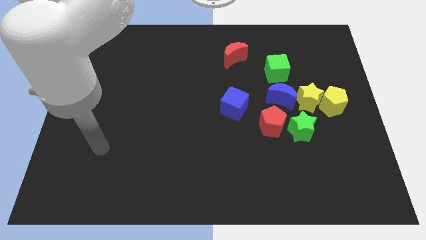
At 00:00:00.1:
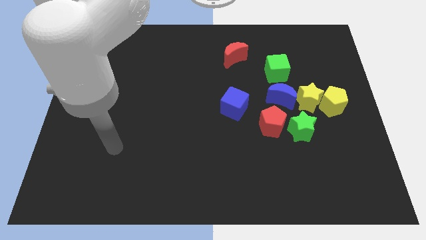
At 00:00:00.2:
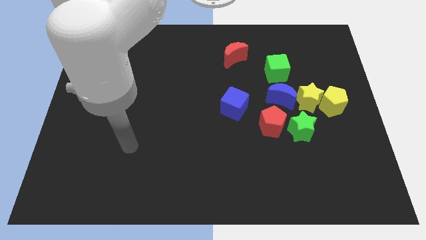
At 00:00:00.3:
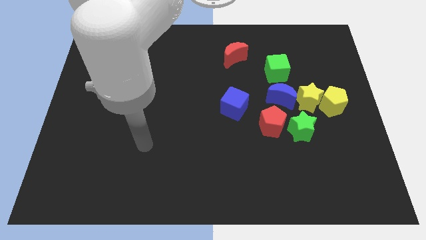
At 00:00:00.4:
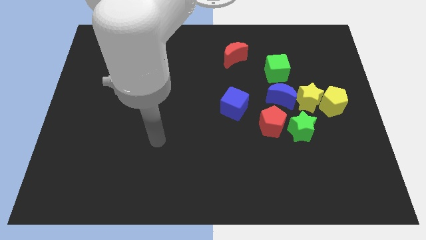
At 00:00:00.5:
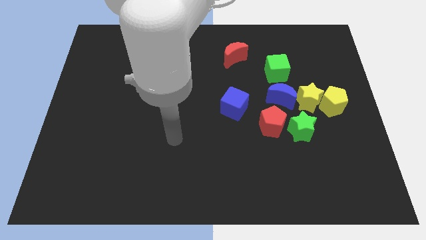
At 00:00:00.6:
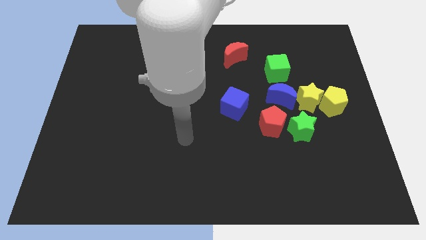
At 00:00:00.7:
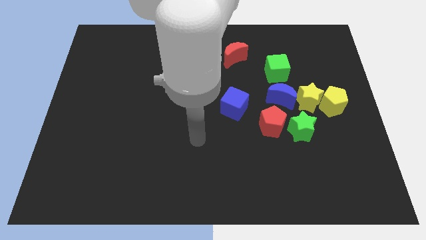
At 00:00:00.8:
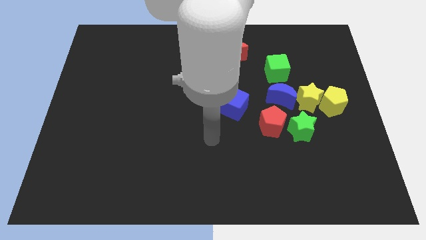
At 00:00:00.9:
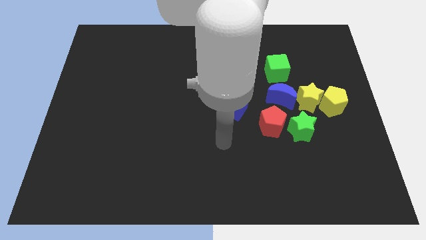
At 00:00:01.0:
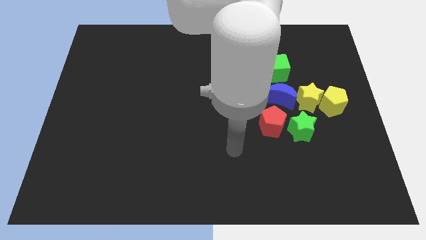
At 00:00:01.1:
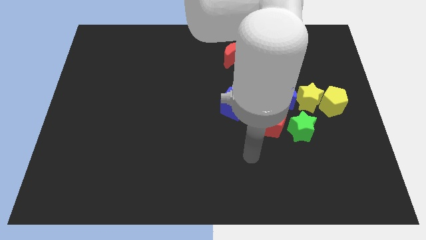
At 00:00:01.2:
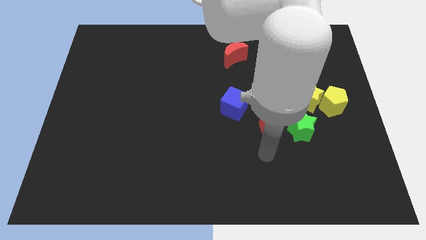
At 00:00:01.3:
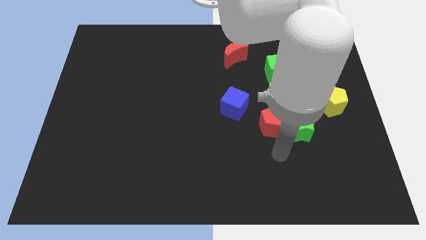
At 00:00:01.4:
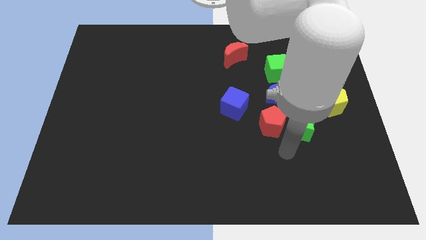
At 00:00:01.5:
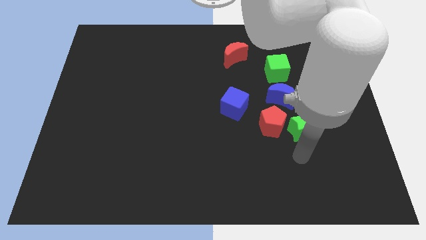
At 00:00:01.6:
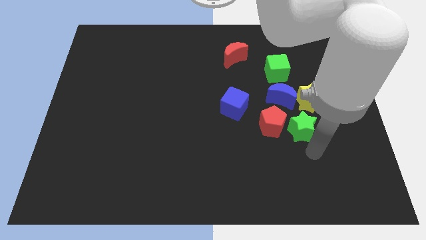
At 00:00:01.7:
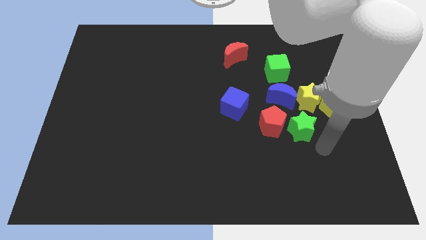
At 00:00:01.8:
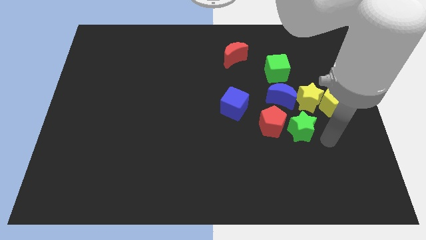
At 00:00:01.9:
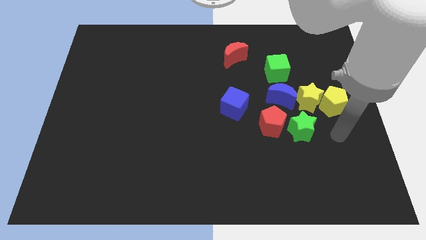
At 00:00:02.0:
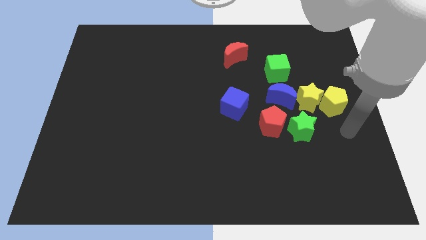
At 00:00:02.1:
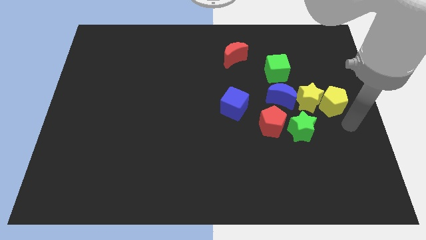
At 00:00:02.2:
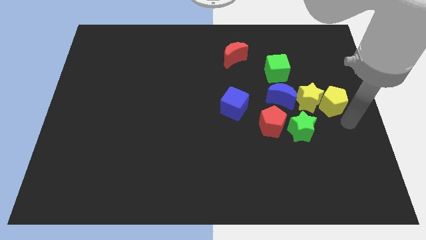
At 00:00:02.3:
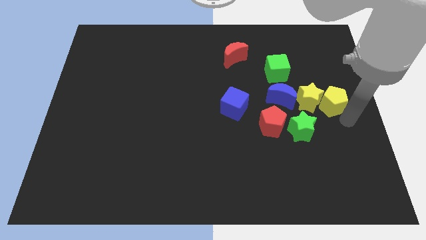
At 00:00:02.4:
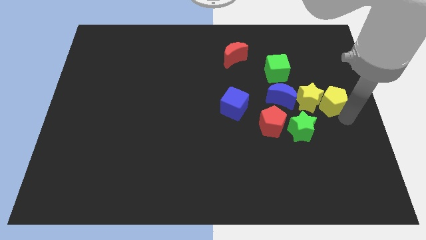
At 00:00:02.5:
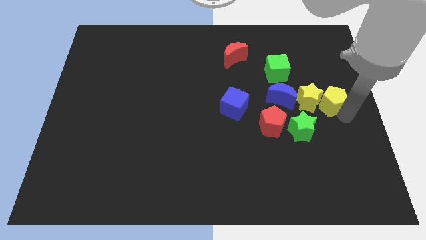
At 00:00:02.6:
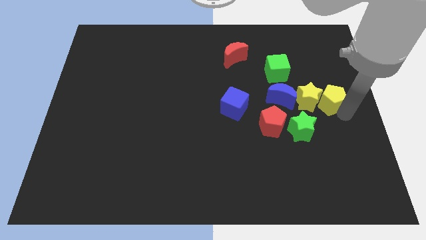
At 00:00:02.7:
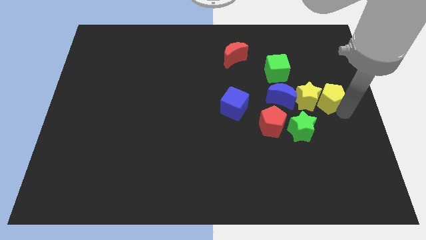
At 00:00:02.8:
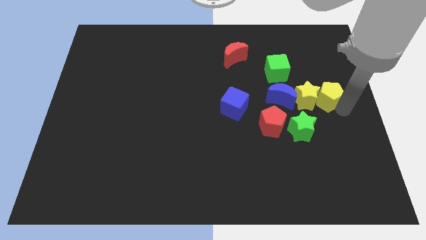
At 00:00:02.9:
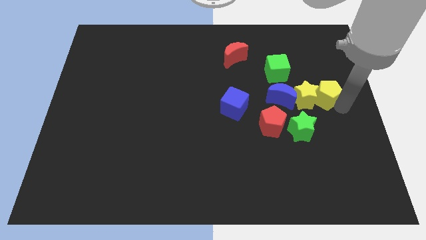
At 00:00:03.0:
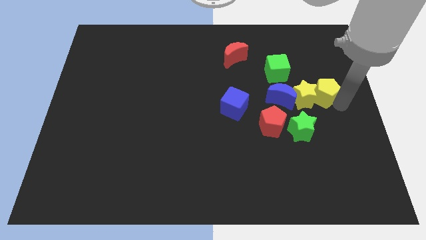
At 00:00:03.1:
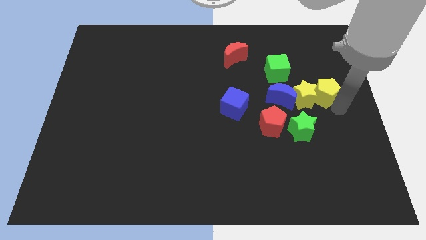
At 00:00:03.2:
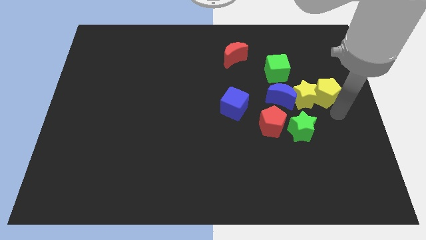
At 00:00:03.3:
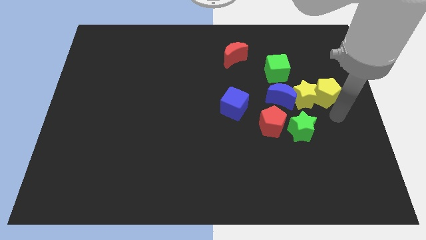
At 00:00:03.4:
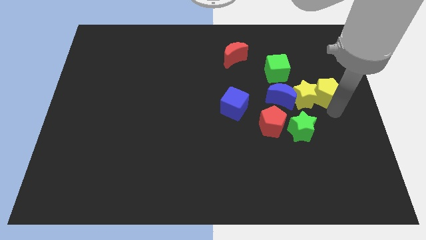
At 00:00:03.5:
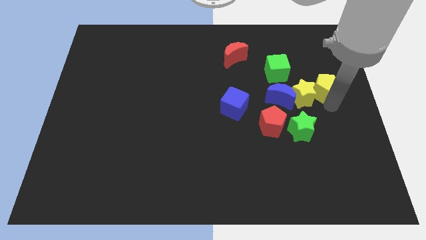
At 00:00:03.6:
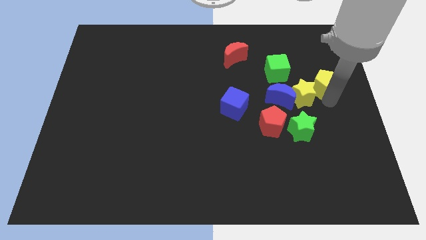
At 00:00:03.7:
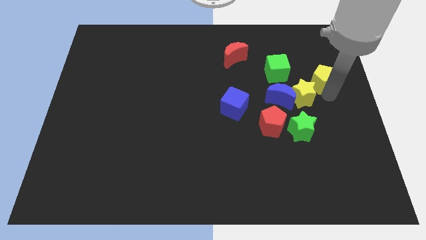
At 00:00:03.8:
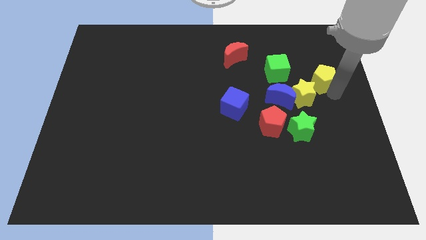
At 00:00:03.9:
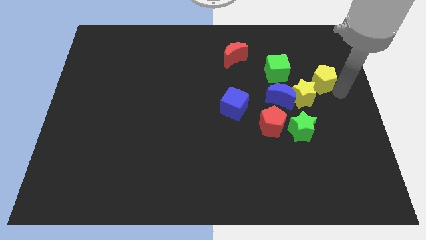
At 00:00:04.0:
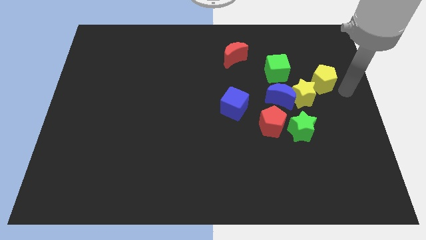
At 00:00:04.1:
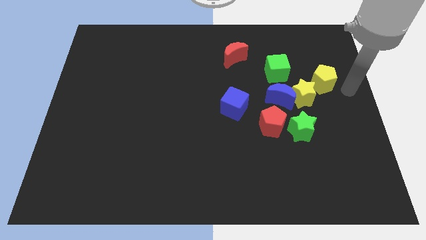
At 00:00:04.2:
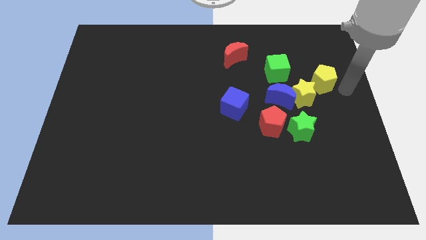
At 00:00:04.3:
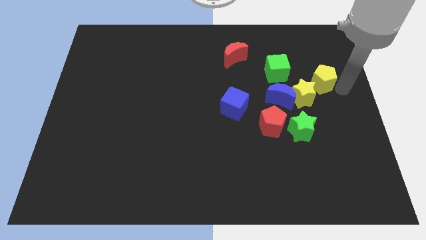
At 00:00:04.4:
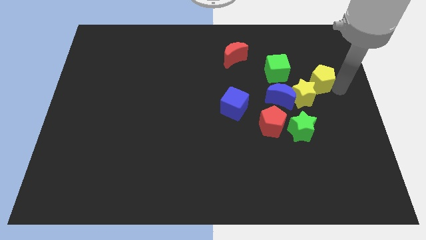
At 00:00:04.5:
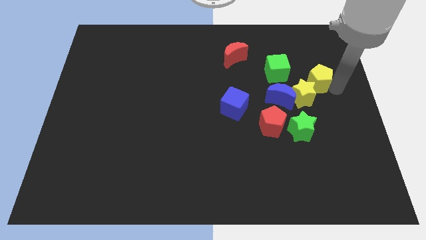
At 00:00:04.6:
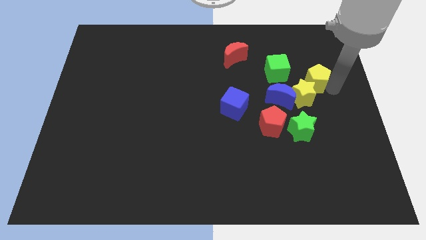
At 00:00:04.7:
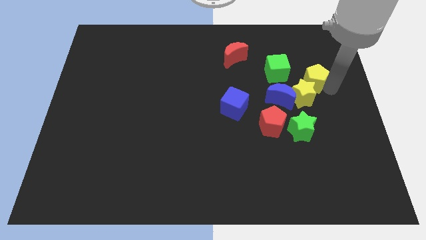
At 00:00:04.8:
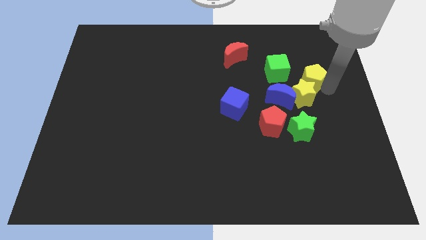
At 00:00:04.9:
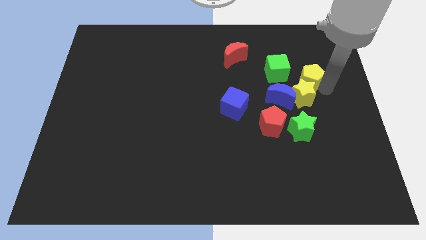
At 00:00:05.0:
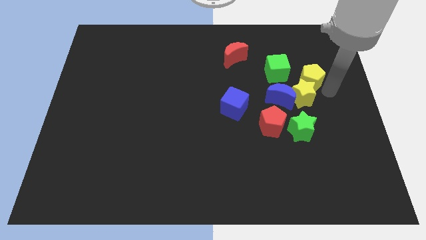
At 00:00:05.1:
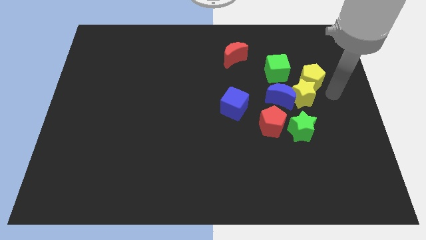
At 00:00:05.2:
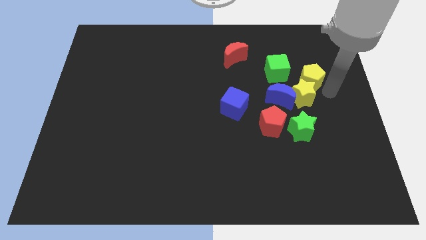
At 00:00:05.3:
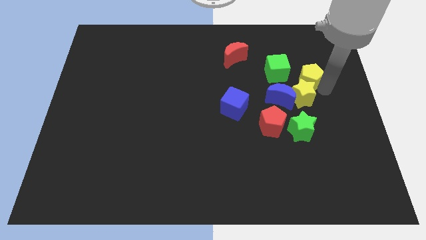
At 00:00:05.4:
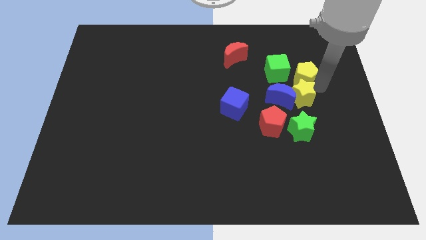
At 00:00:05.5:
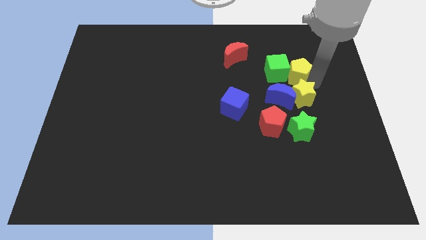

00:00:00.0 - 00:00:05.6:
put the yellow pentagon towards the green cube

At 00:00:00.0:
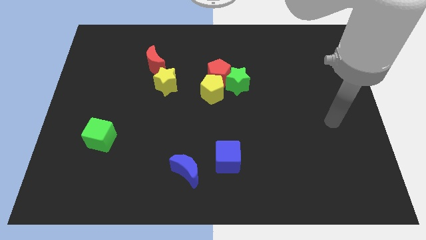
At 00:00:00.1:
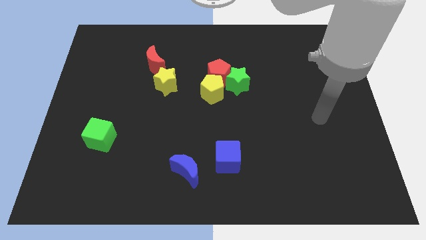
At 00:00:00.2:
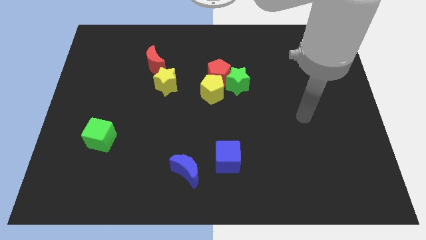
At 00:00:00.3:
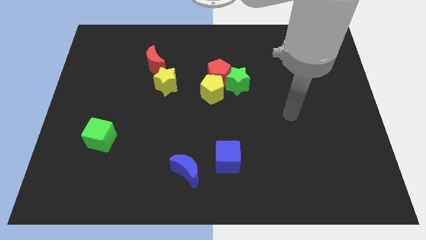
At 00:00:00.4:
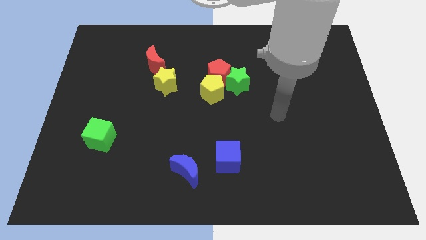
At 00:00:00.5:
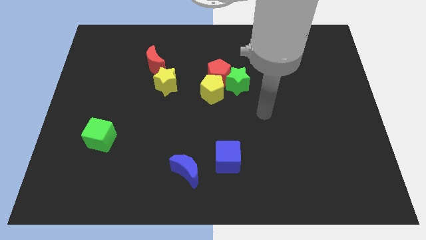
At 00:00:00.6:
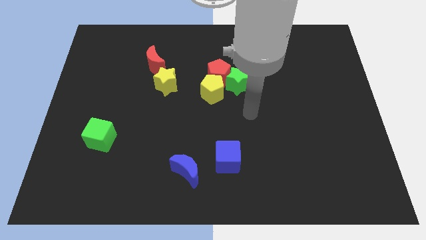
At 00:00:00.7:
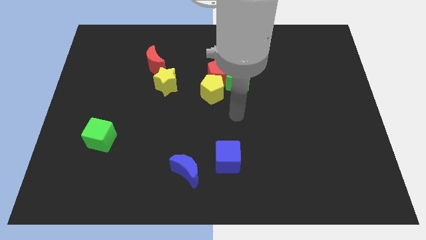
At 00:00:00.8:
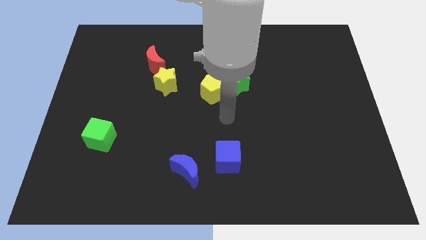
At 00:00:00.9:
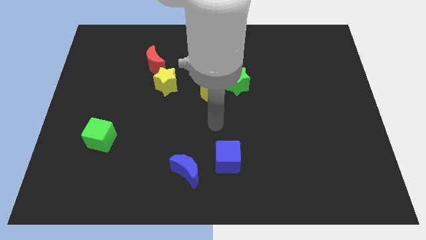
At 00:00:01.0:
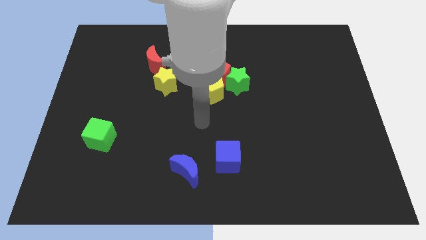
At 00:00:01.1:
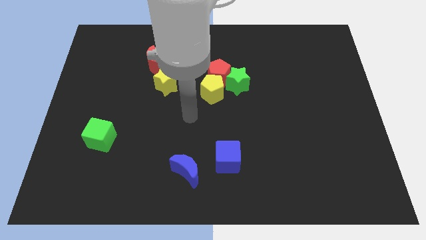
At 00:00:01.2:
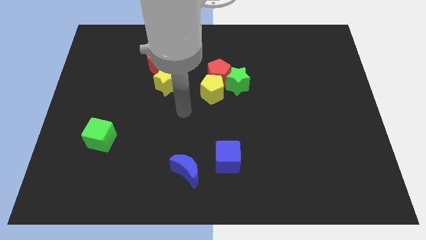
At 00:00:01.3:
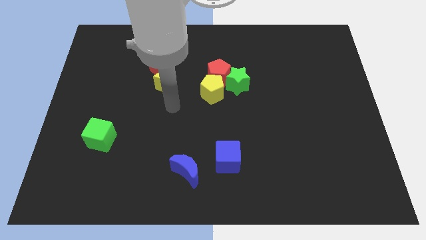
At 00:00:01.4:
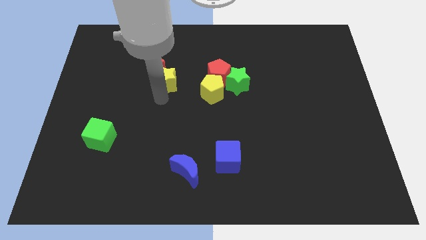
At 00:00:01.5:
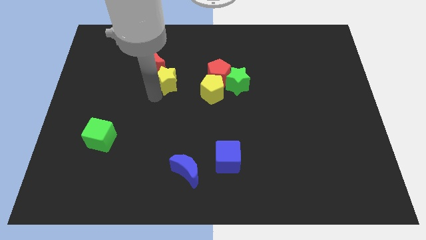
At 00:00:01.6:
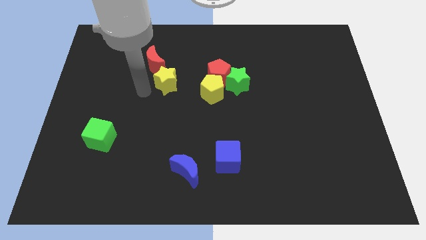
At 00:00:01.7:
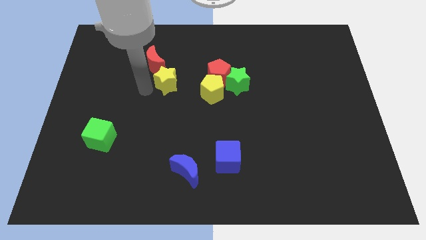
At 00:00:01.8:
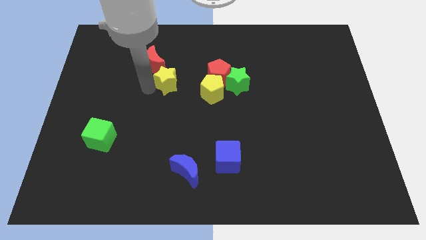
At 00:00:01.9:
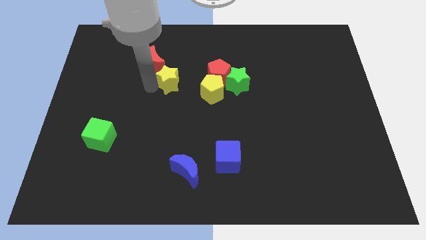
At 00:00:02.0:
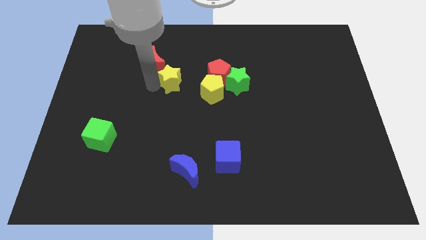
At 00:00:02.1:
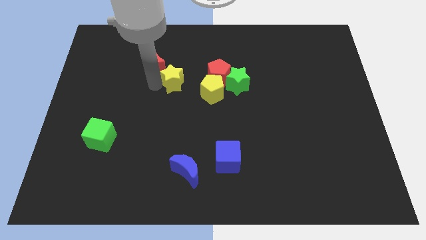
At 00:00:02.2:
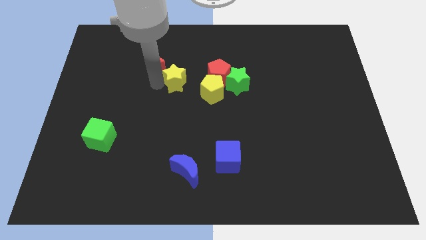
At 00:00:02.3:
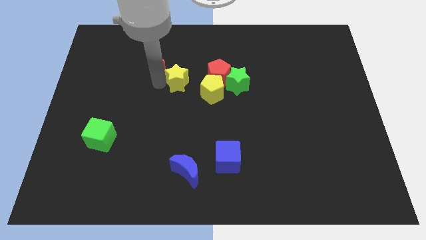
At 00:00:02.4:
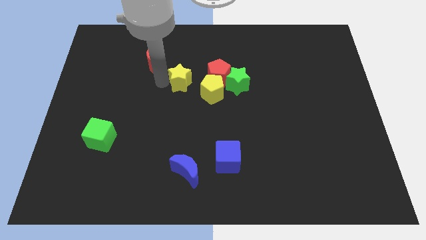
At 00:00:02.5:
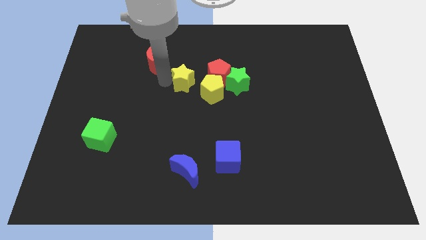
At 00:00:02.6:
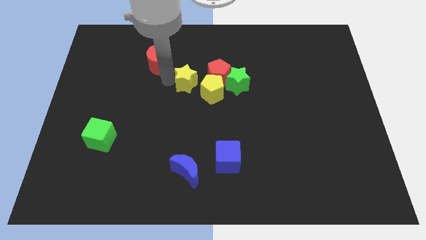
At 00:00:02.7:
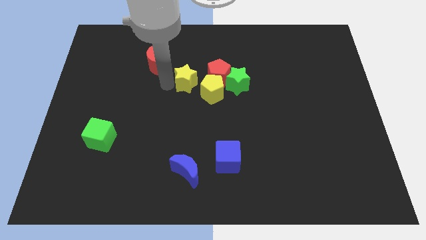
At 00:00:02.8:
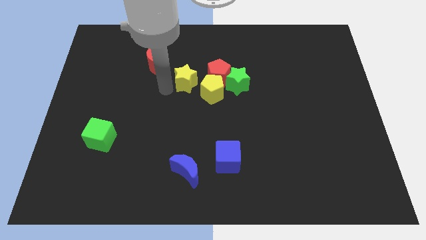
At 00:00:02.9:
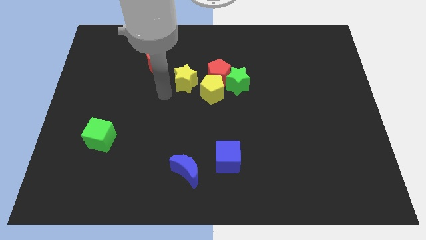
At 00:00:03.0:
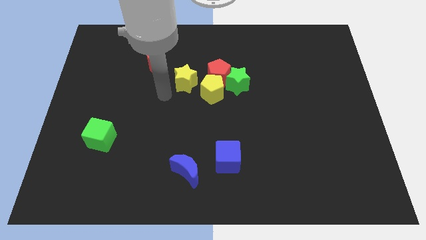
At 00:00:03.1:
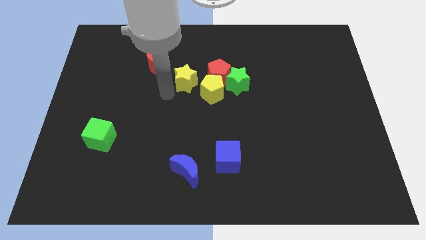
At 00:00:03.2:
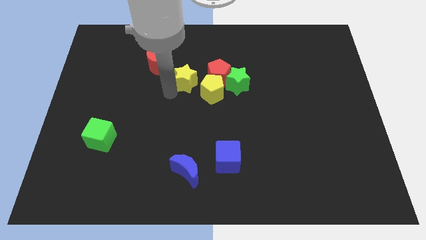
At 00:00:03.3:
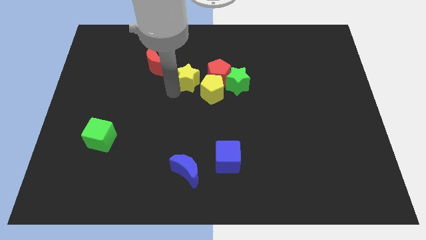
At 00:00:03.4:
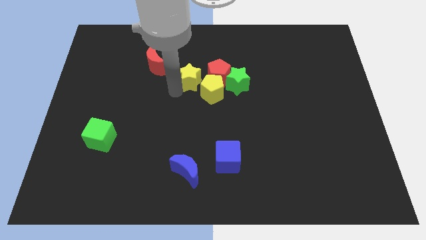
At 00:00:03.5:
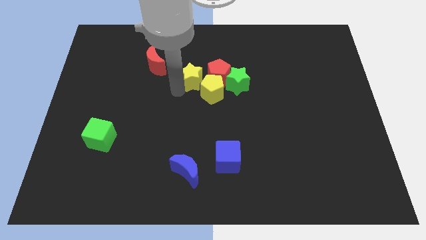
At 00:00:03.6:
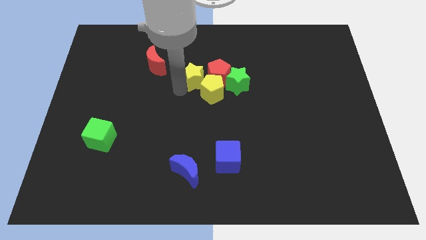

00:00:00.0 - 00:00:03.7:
slide the yellow star next to the red pentagon
